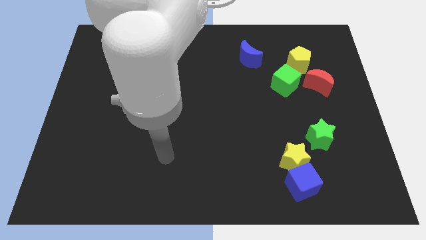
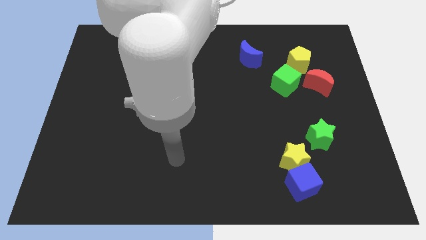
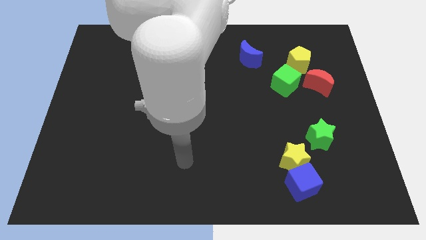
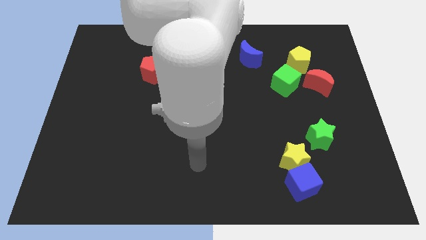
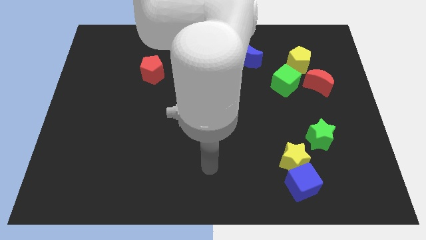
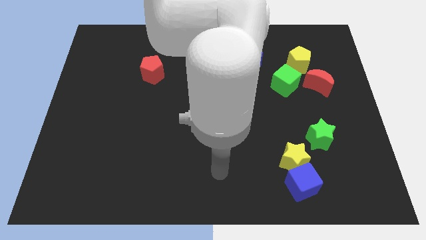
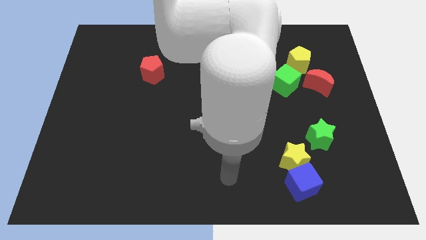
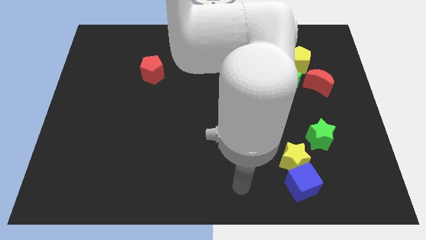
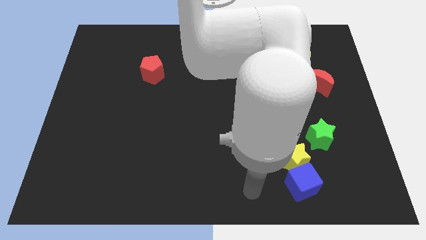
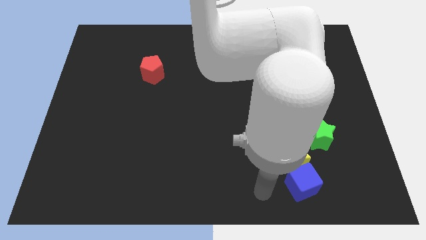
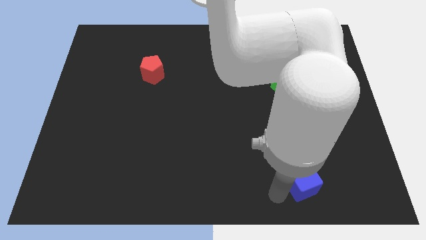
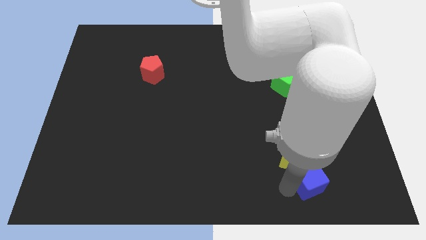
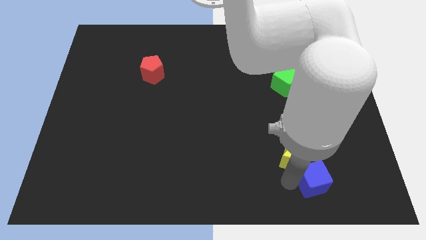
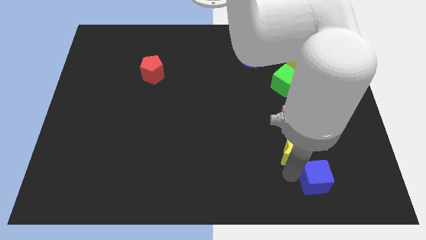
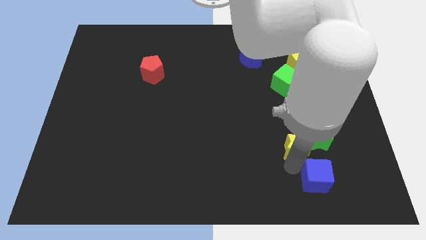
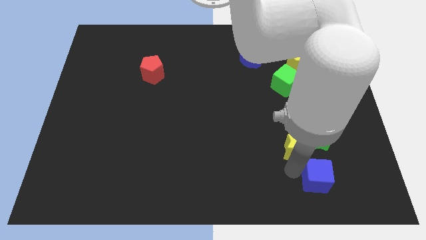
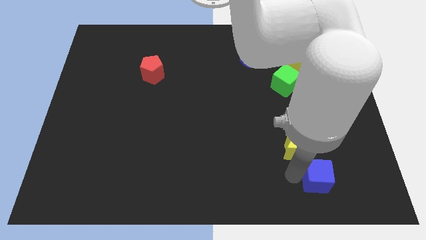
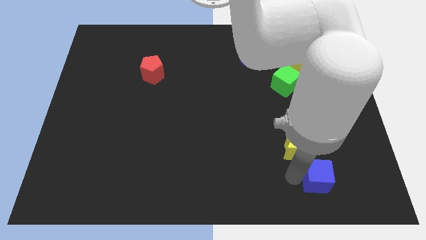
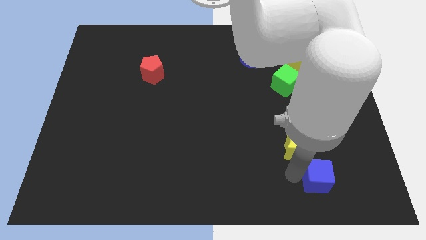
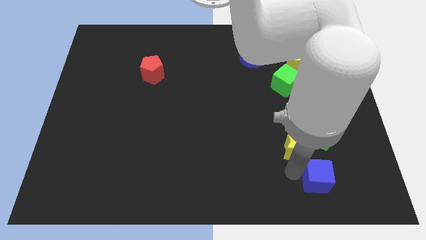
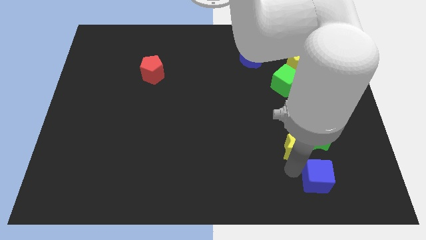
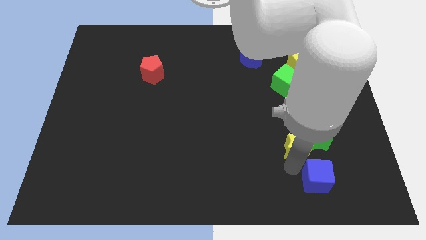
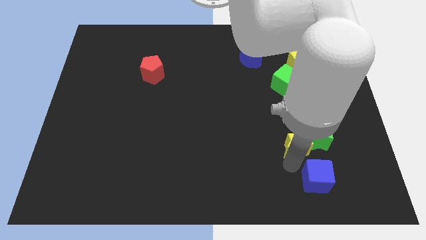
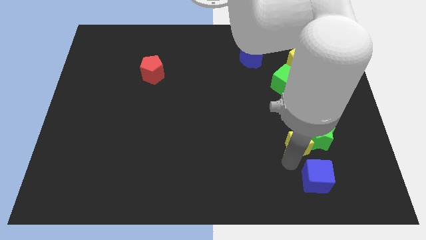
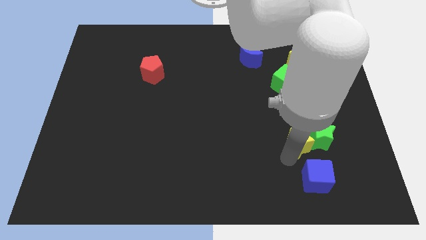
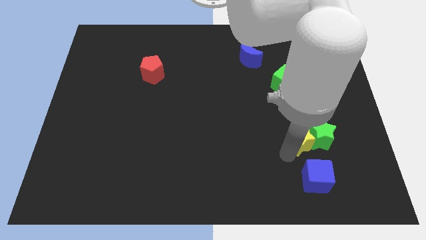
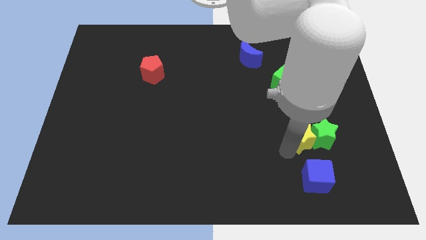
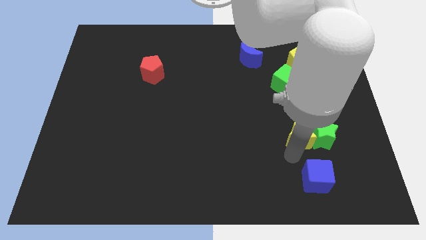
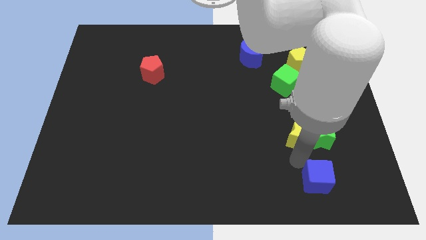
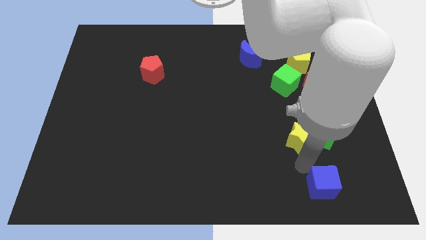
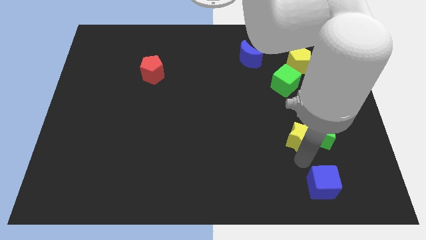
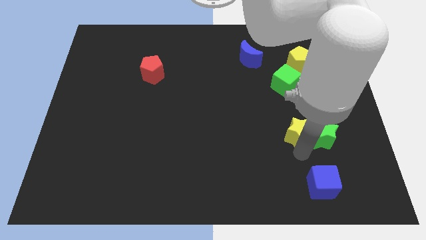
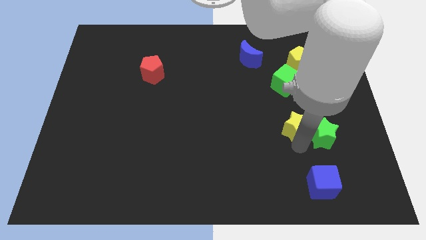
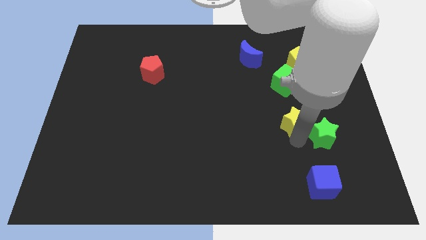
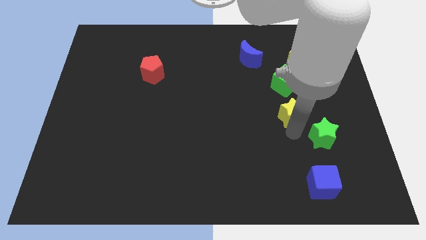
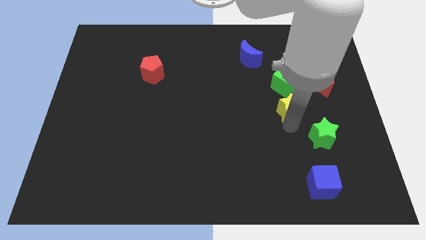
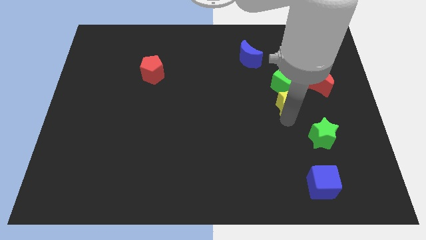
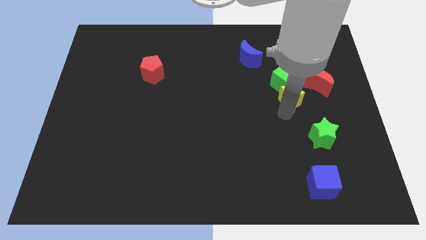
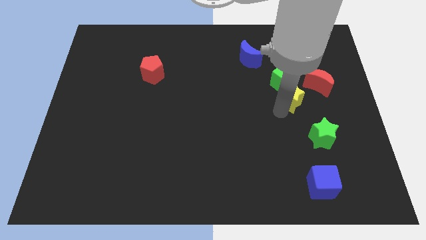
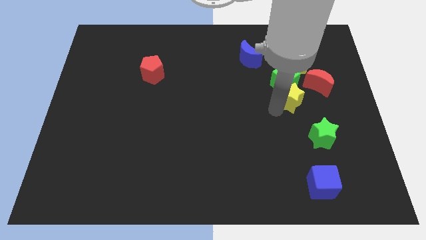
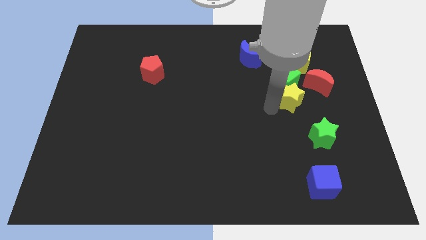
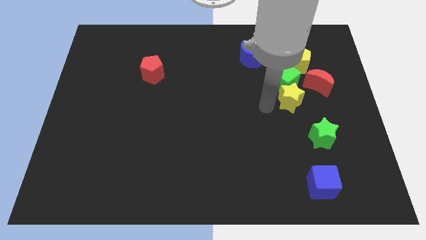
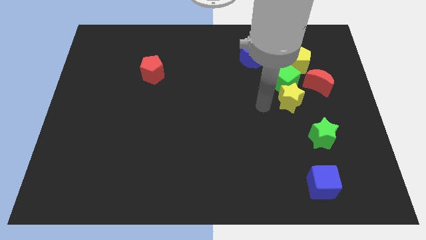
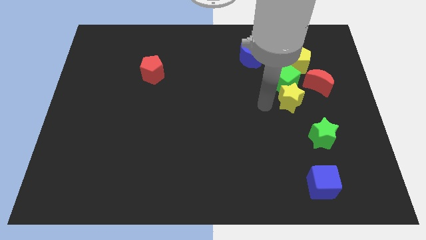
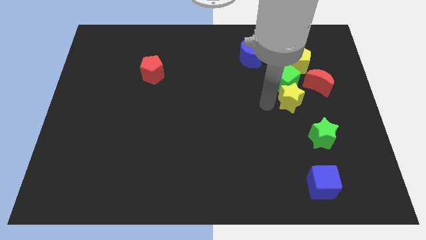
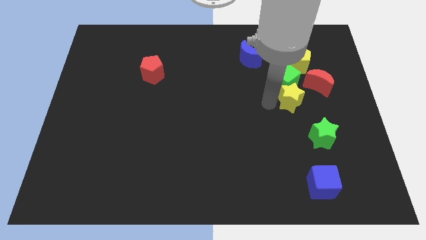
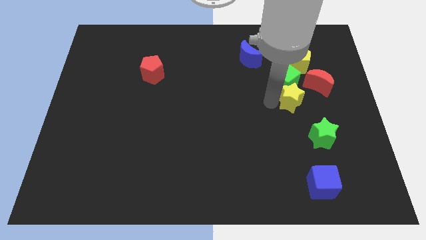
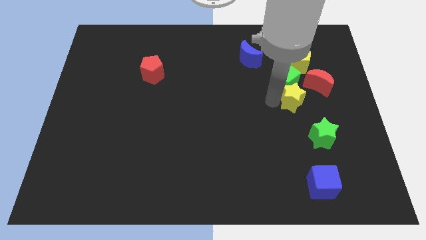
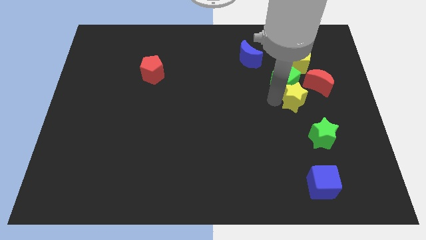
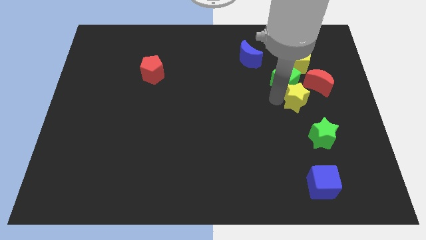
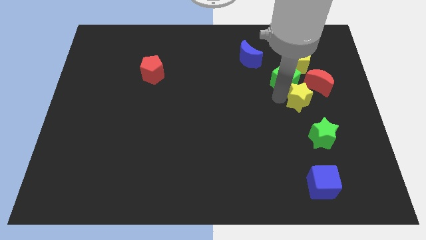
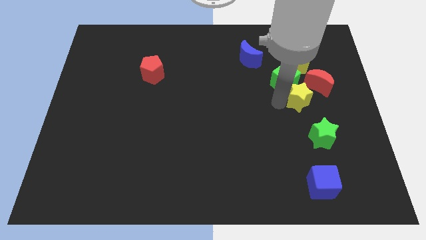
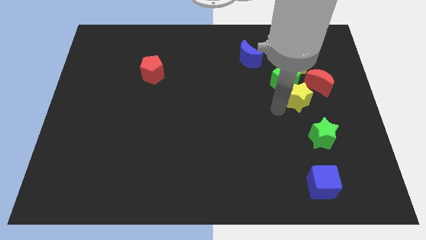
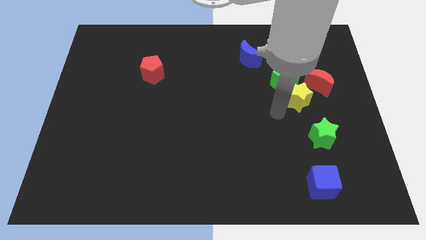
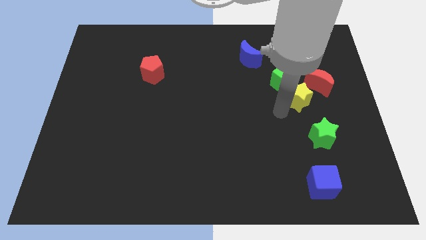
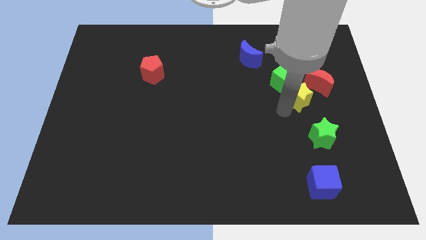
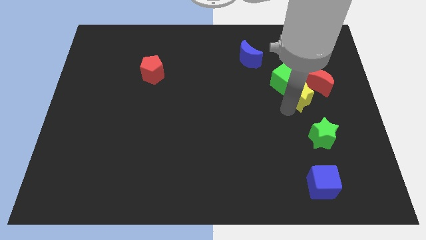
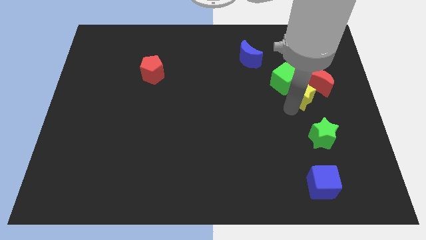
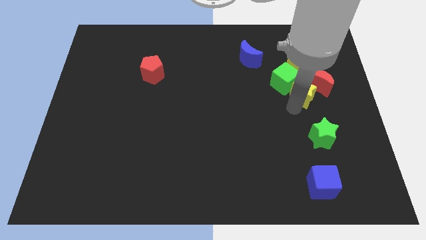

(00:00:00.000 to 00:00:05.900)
put the yellow star next to the red moon

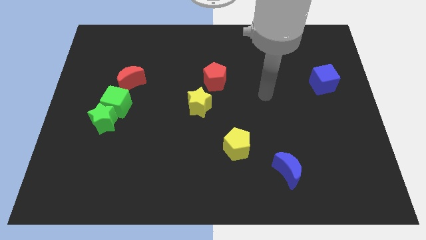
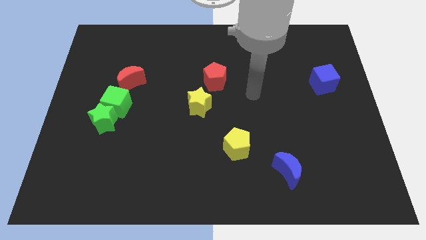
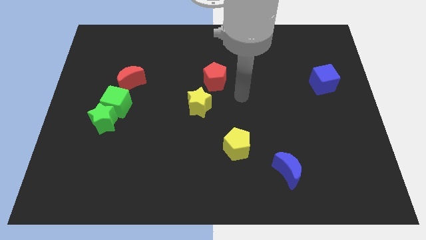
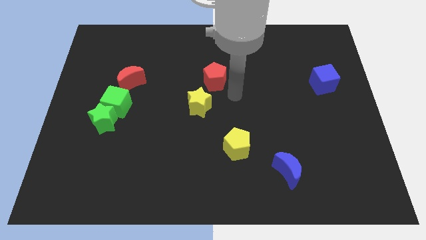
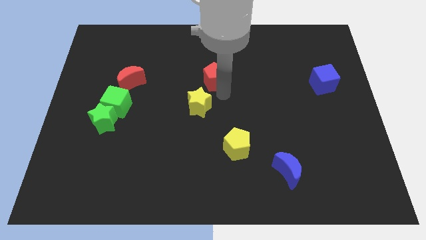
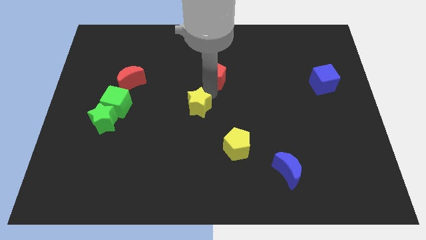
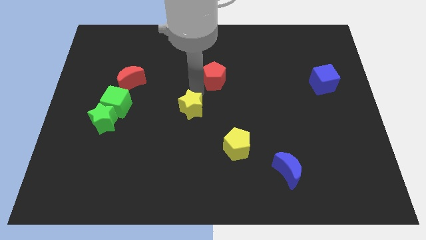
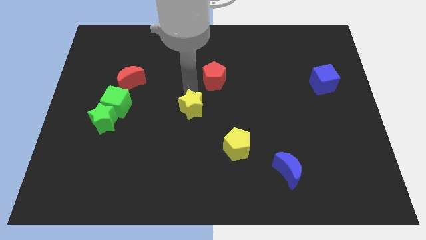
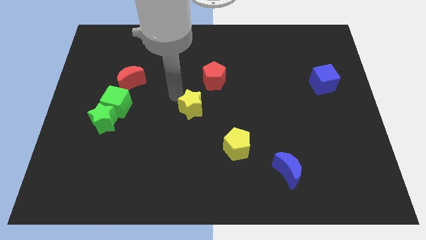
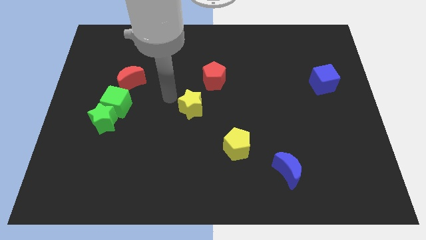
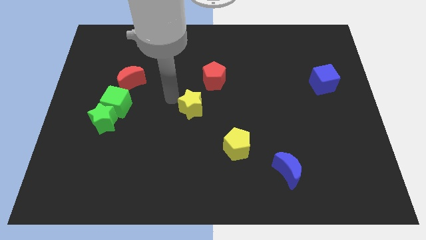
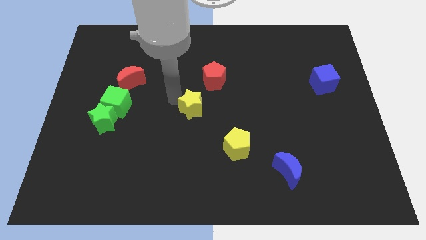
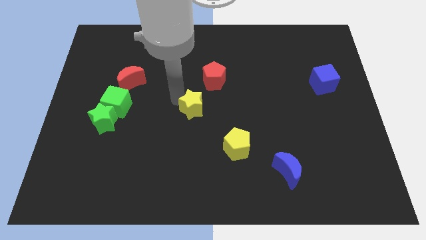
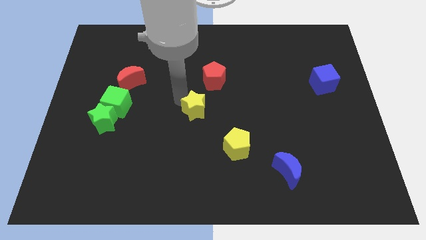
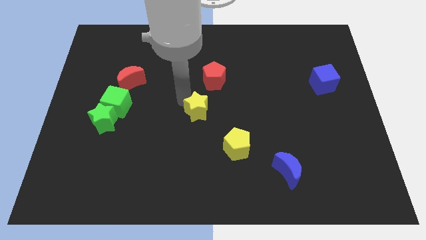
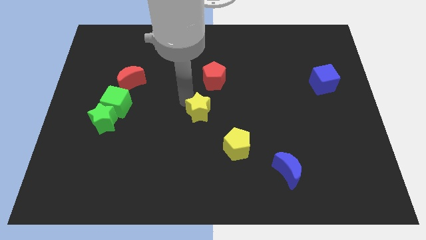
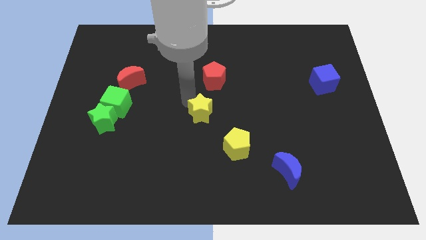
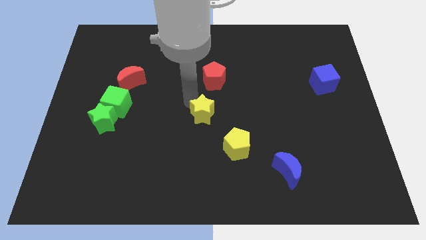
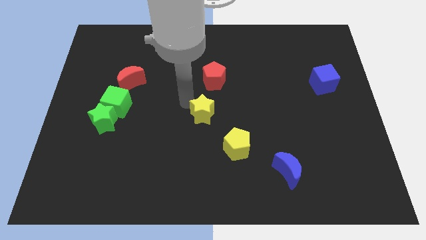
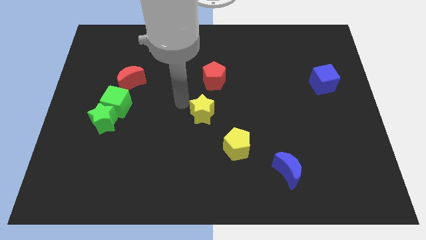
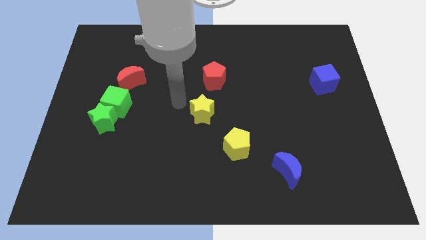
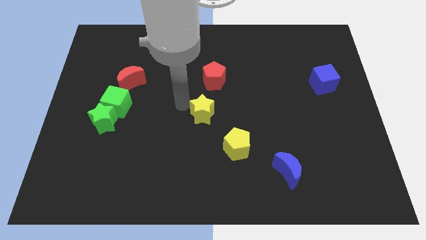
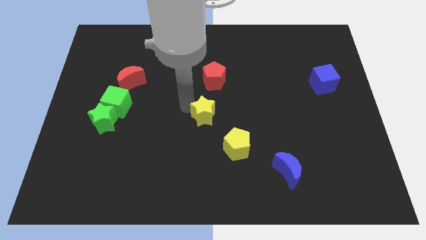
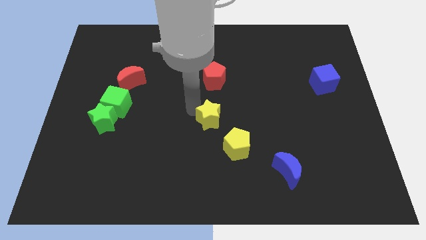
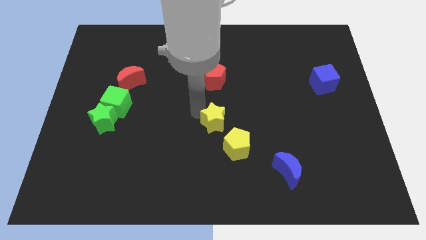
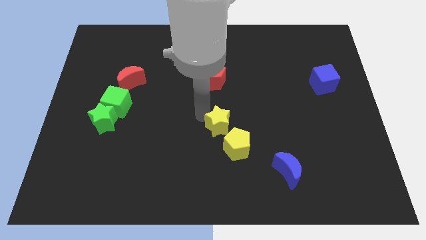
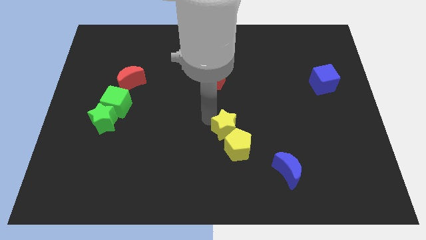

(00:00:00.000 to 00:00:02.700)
put the yellow star next to the yellow pentagon
